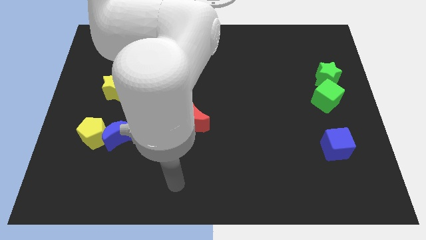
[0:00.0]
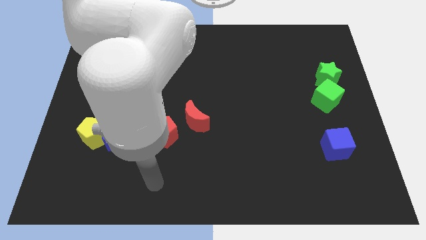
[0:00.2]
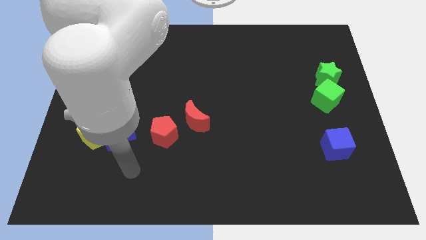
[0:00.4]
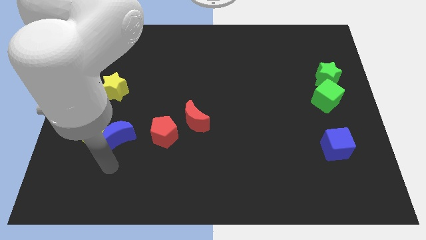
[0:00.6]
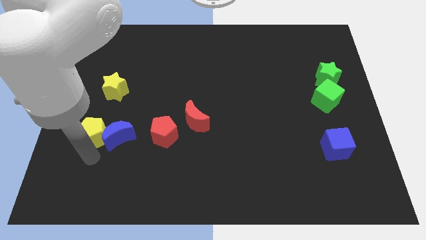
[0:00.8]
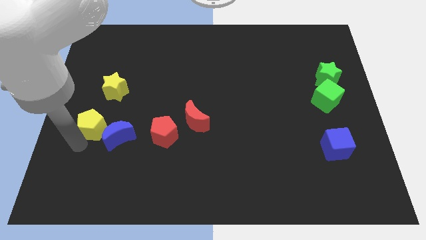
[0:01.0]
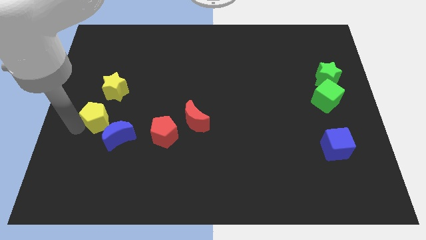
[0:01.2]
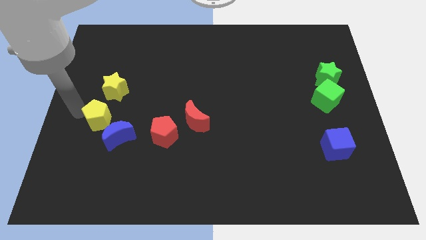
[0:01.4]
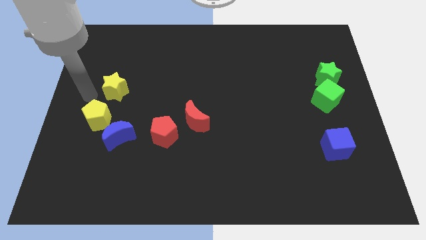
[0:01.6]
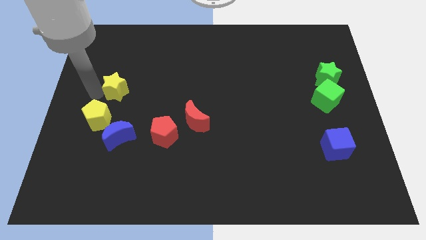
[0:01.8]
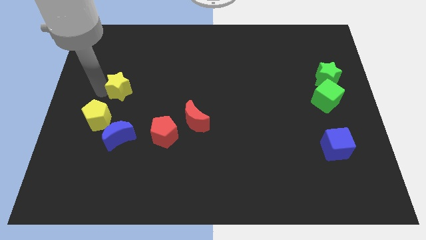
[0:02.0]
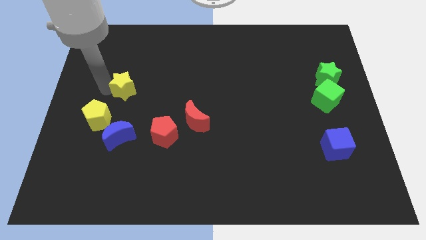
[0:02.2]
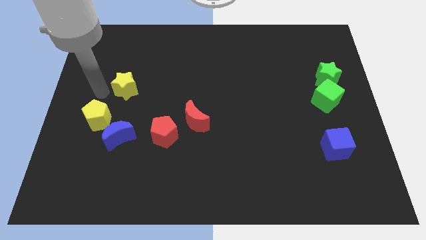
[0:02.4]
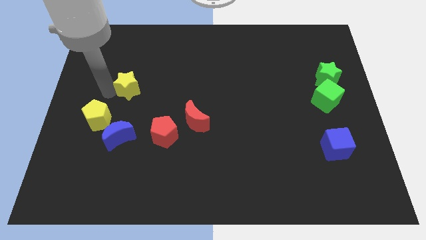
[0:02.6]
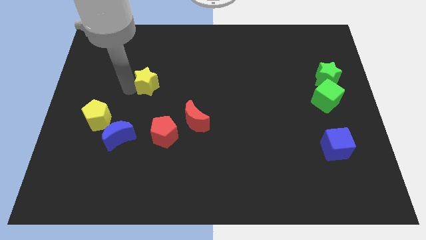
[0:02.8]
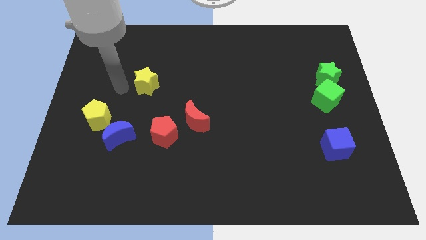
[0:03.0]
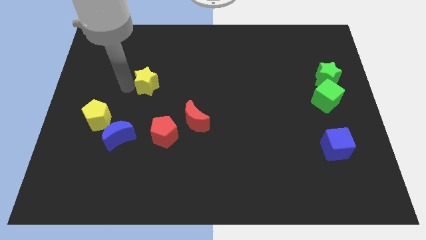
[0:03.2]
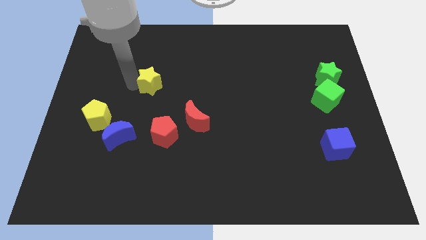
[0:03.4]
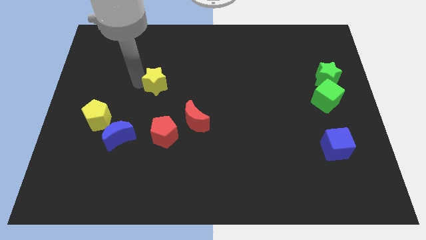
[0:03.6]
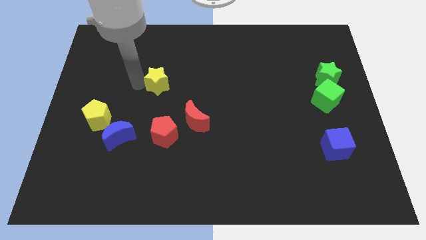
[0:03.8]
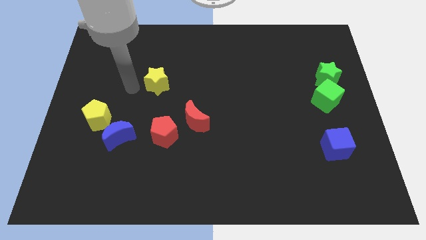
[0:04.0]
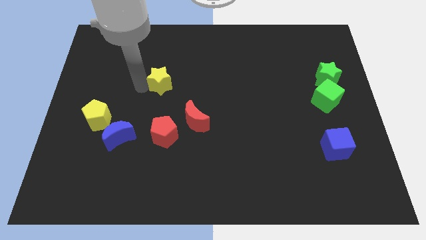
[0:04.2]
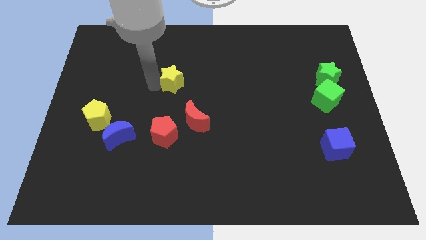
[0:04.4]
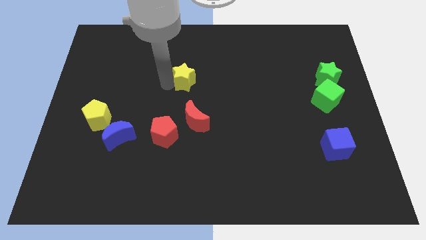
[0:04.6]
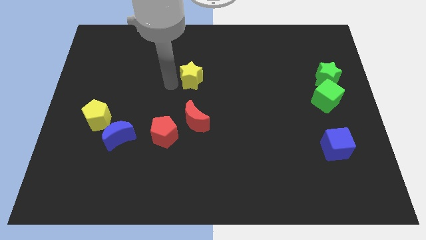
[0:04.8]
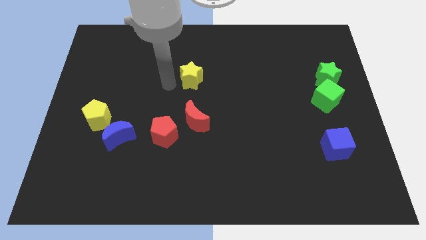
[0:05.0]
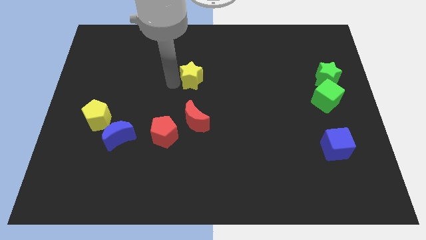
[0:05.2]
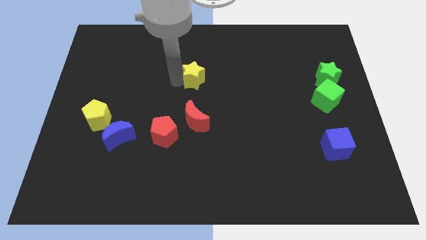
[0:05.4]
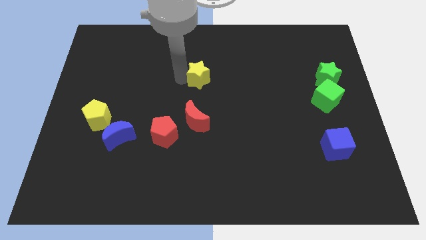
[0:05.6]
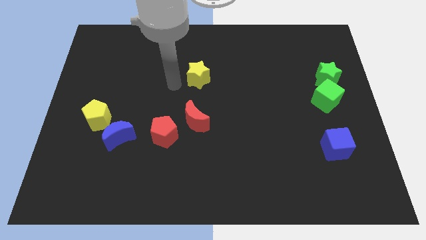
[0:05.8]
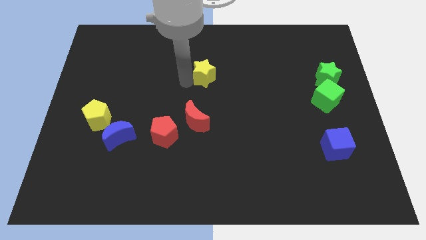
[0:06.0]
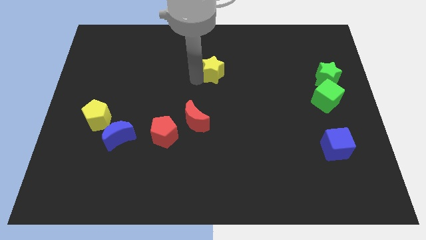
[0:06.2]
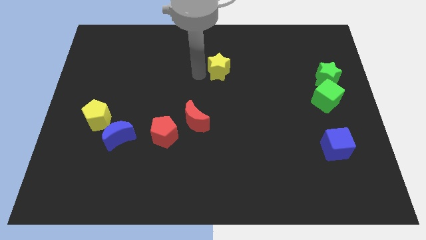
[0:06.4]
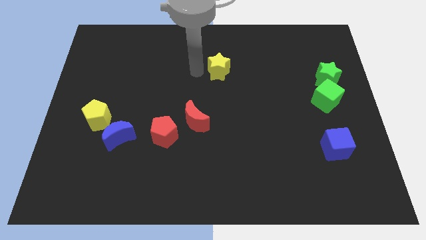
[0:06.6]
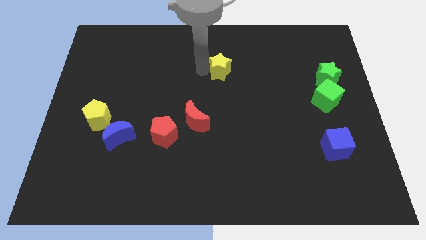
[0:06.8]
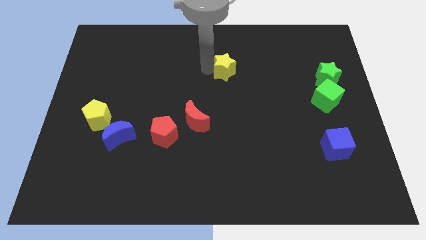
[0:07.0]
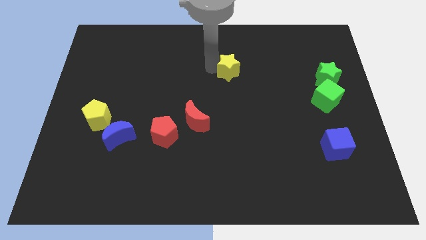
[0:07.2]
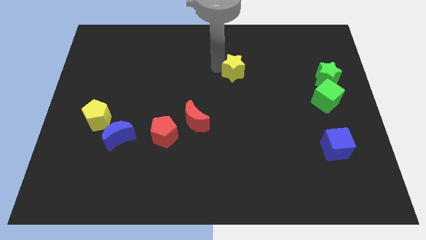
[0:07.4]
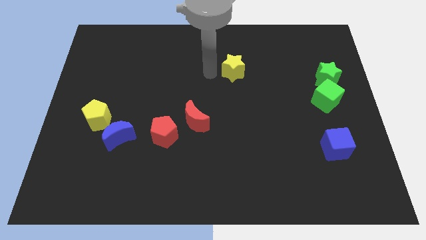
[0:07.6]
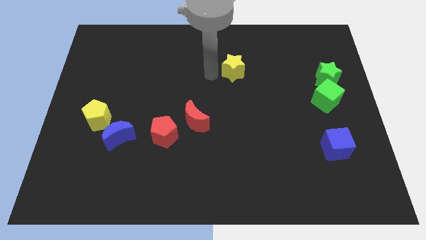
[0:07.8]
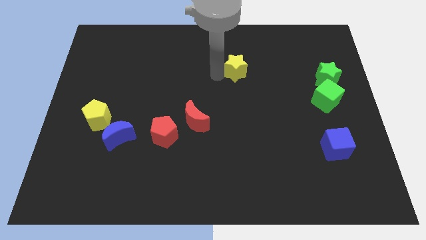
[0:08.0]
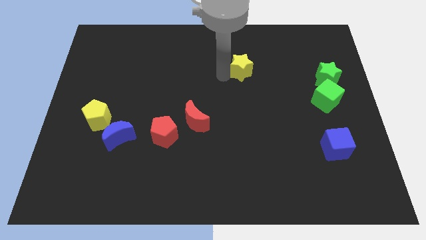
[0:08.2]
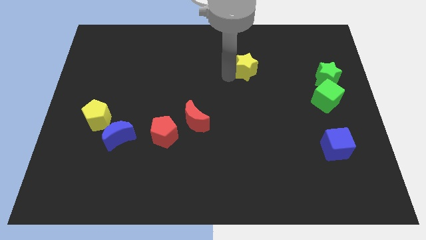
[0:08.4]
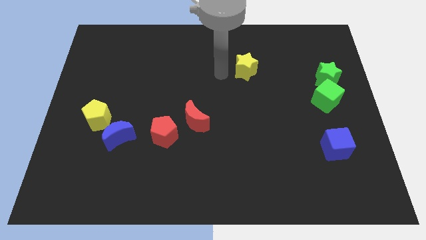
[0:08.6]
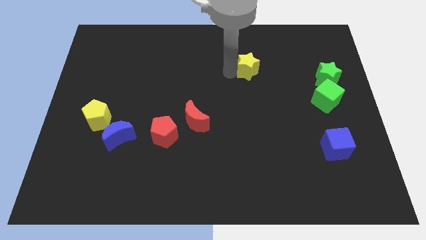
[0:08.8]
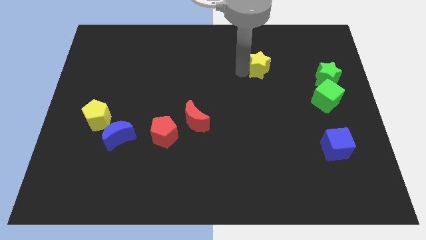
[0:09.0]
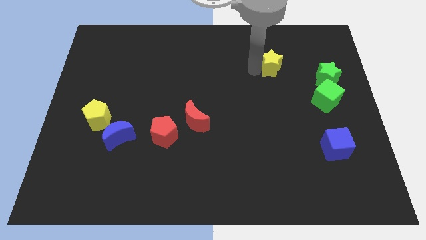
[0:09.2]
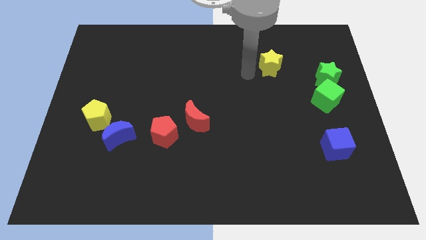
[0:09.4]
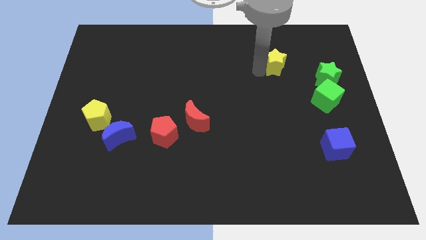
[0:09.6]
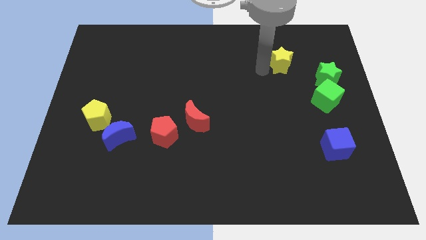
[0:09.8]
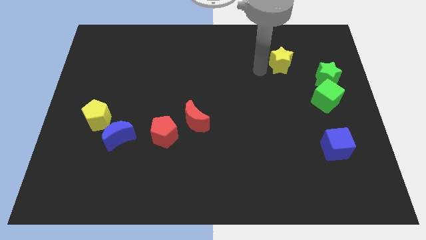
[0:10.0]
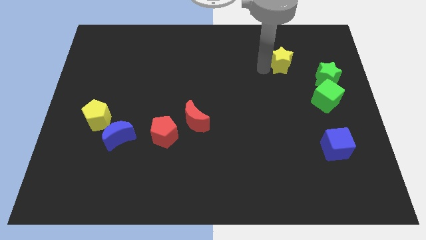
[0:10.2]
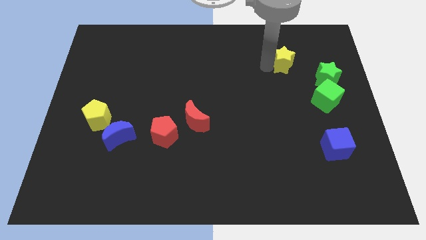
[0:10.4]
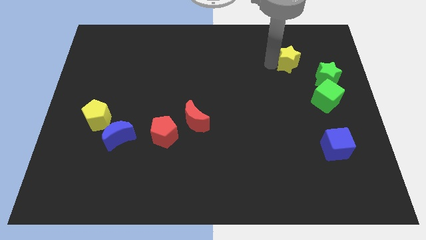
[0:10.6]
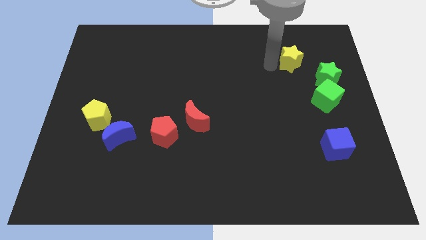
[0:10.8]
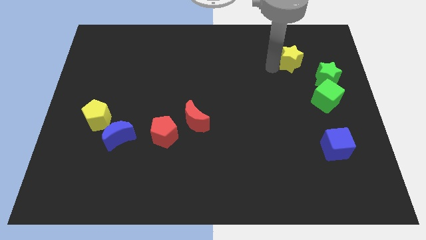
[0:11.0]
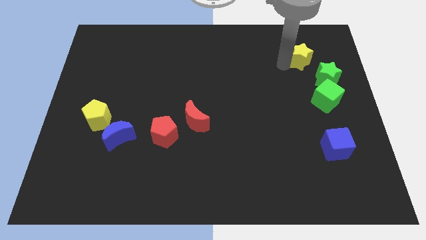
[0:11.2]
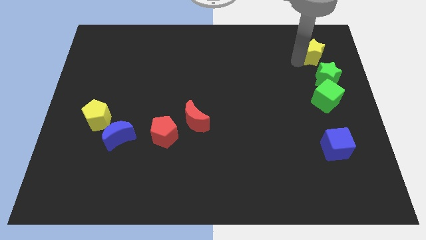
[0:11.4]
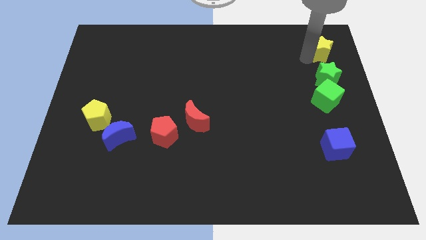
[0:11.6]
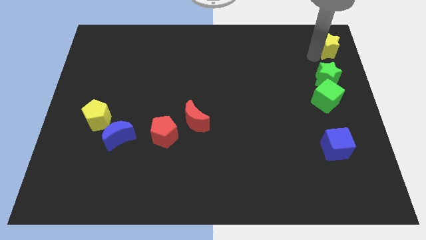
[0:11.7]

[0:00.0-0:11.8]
push the yellow star to the upper right corner
